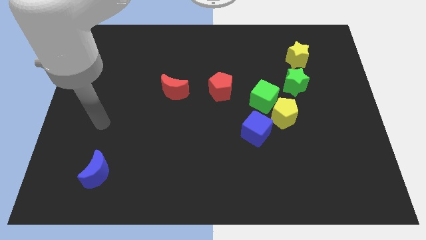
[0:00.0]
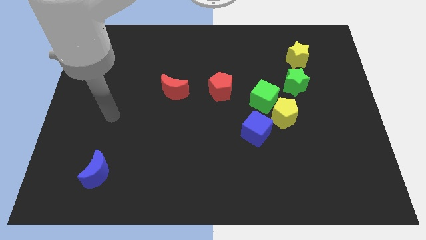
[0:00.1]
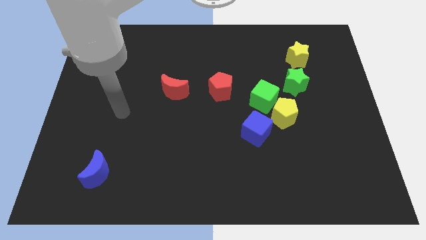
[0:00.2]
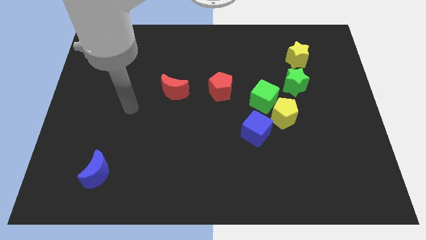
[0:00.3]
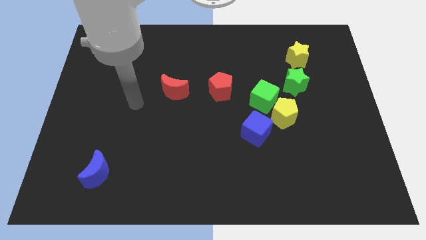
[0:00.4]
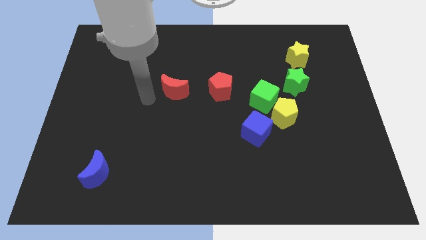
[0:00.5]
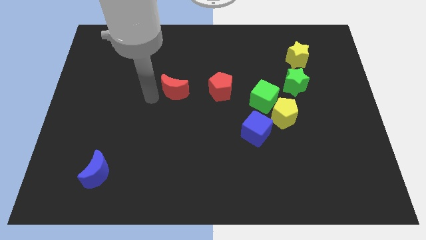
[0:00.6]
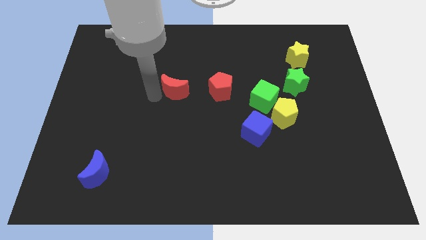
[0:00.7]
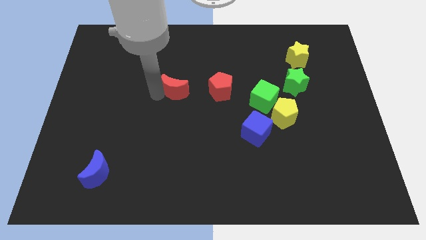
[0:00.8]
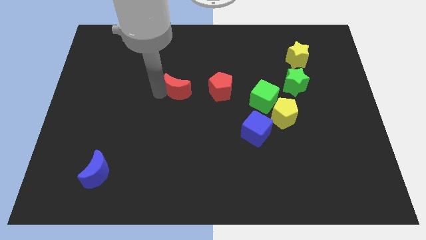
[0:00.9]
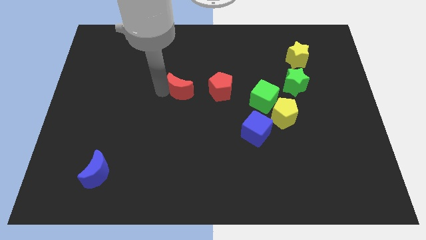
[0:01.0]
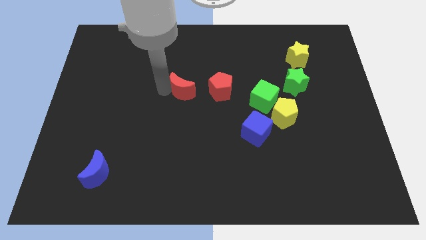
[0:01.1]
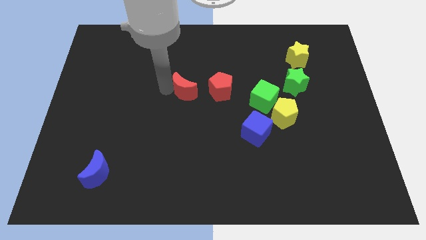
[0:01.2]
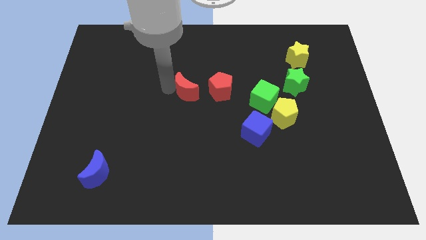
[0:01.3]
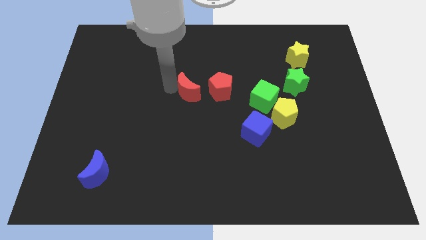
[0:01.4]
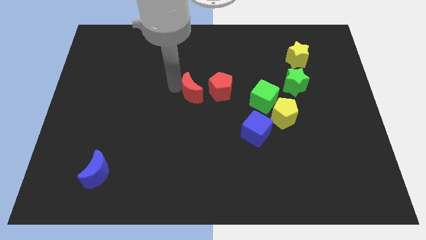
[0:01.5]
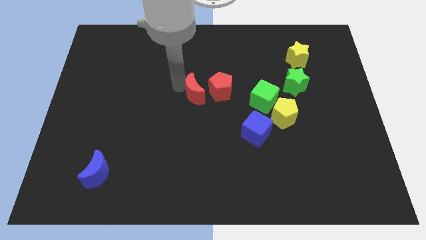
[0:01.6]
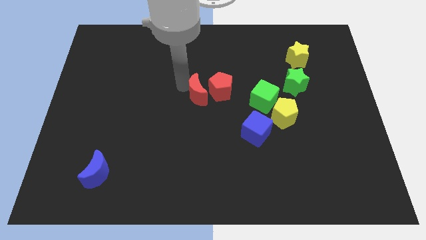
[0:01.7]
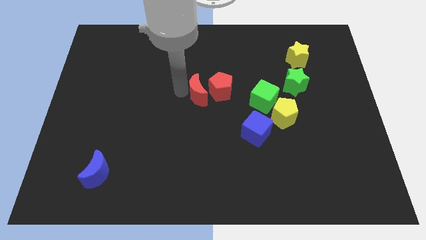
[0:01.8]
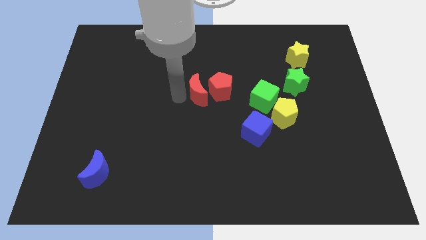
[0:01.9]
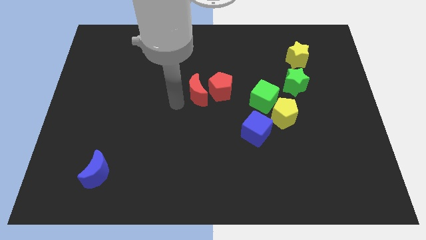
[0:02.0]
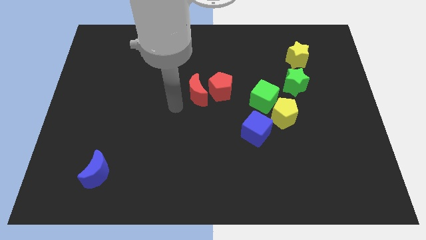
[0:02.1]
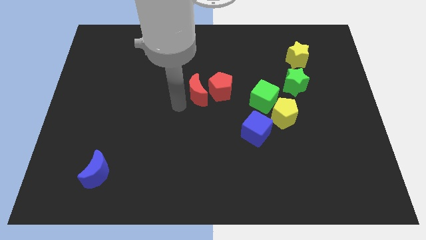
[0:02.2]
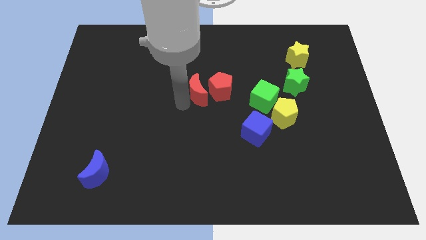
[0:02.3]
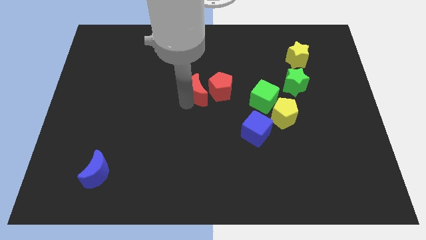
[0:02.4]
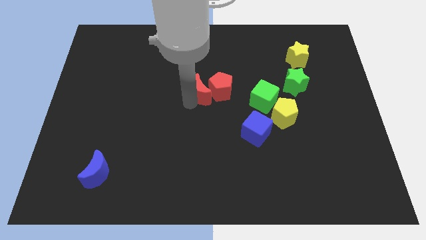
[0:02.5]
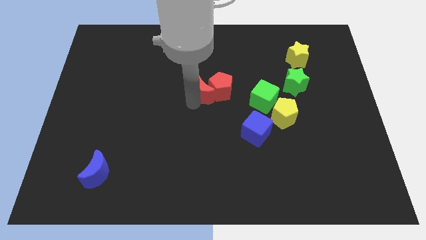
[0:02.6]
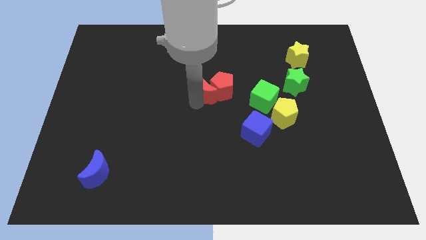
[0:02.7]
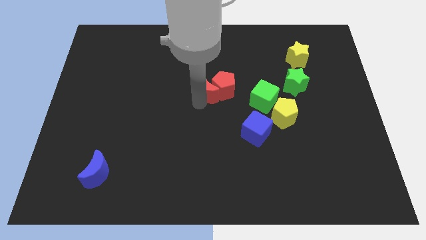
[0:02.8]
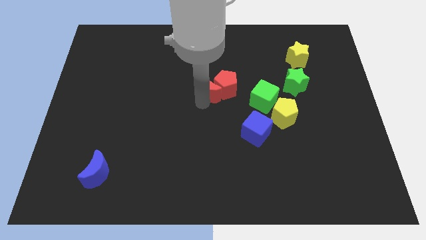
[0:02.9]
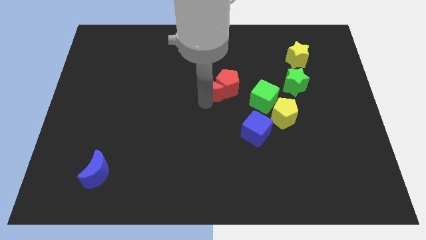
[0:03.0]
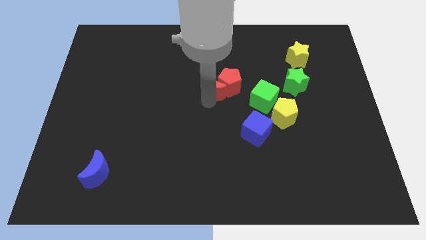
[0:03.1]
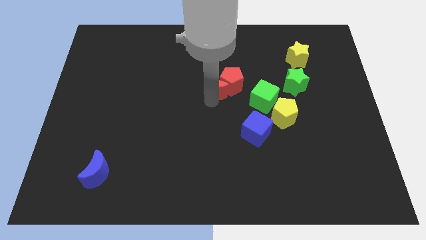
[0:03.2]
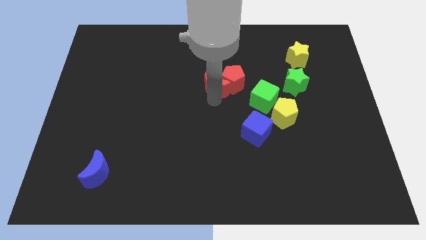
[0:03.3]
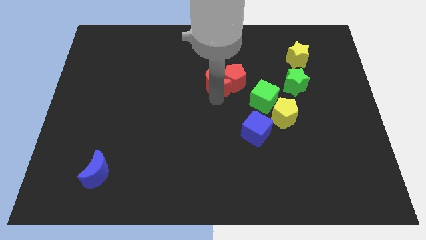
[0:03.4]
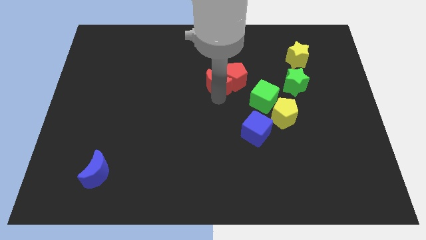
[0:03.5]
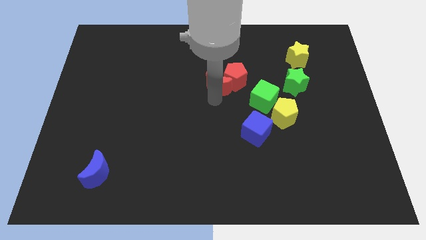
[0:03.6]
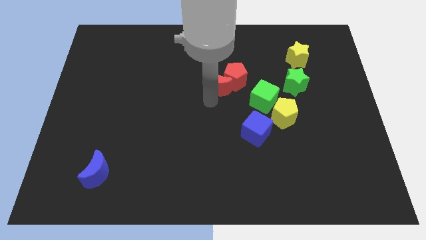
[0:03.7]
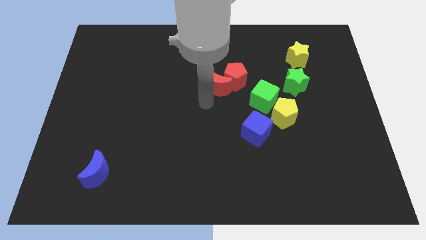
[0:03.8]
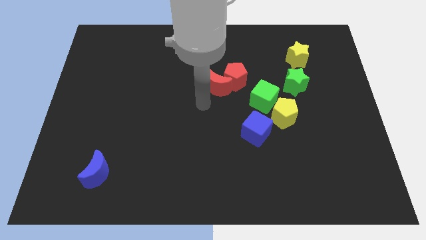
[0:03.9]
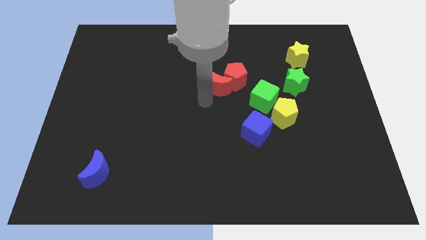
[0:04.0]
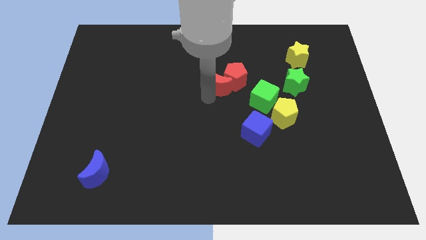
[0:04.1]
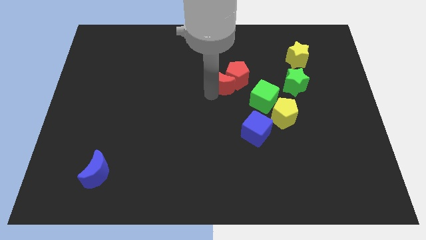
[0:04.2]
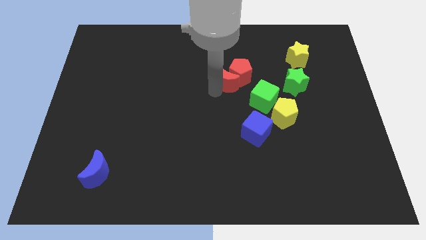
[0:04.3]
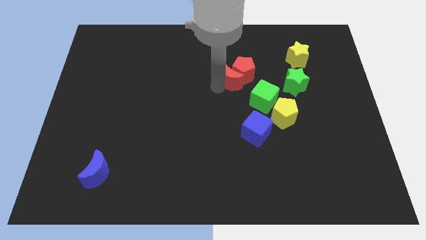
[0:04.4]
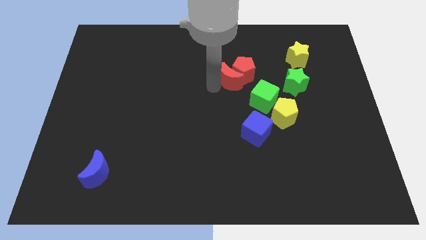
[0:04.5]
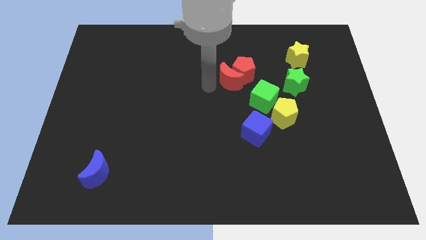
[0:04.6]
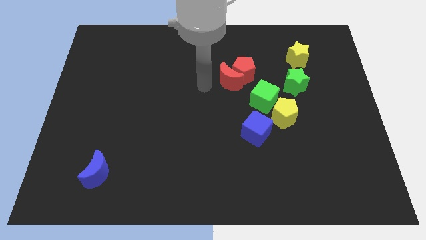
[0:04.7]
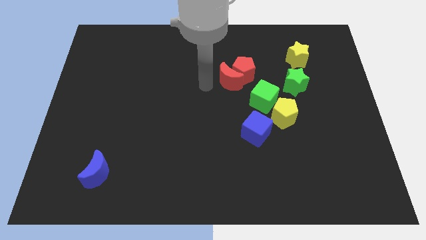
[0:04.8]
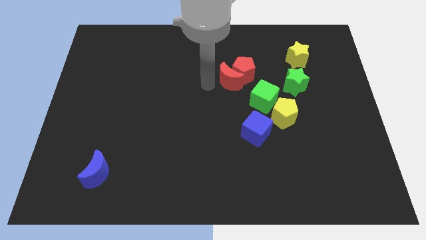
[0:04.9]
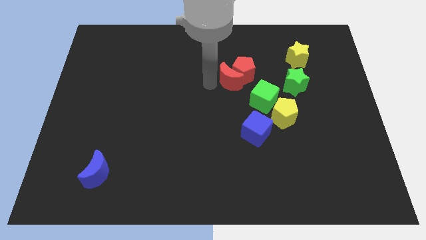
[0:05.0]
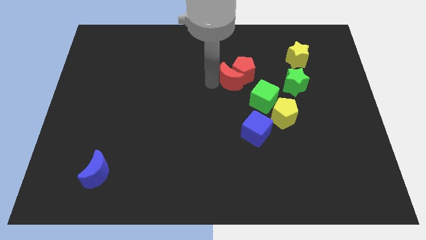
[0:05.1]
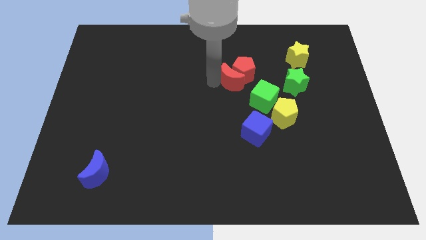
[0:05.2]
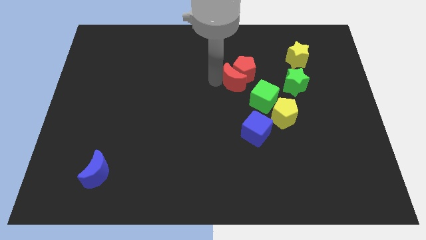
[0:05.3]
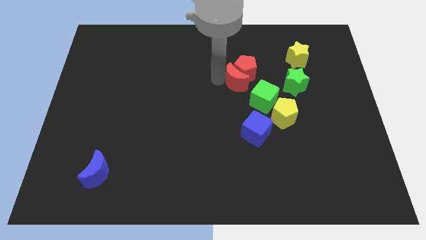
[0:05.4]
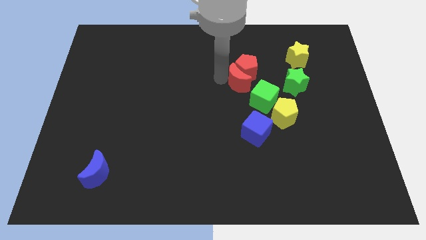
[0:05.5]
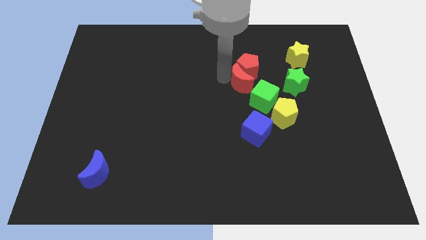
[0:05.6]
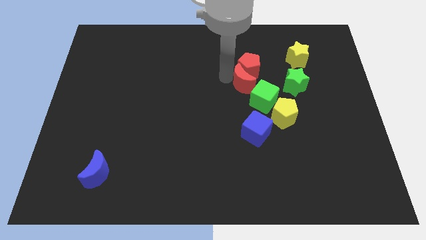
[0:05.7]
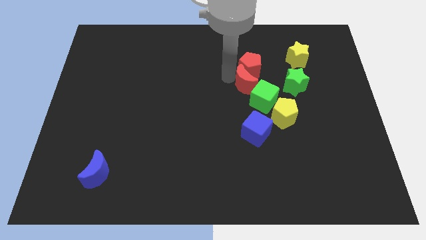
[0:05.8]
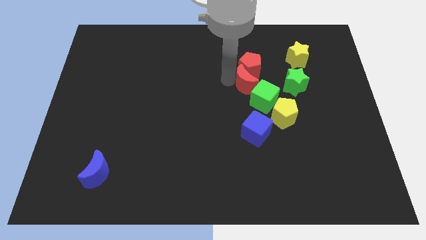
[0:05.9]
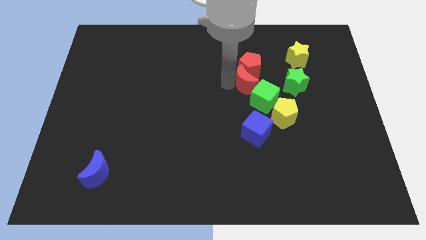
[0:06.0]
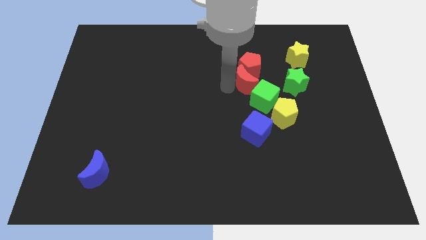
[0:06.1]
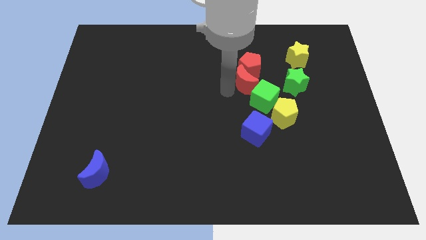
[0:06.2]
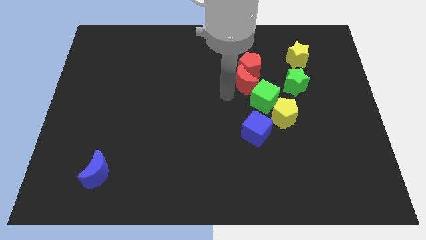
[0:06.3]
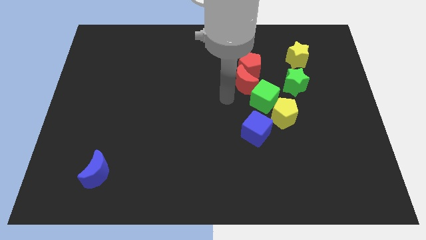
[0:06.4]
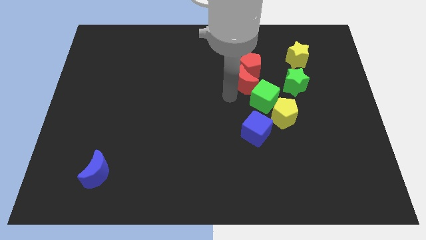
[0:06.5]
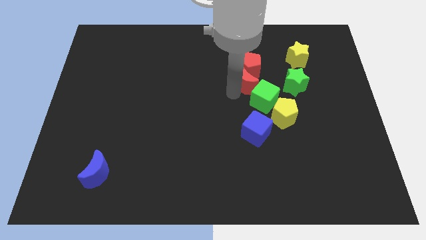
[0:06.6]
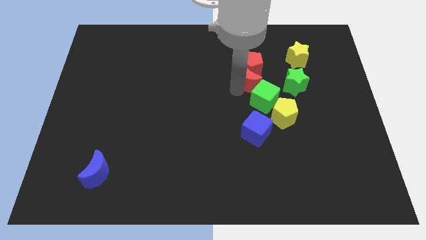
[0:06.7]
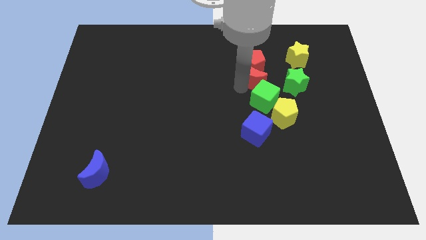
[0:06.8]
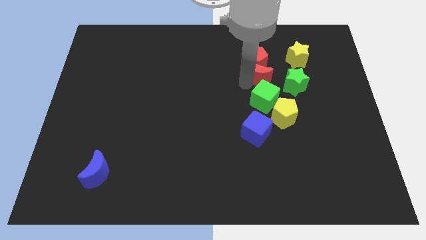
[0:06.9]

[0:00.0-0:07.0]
push the red moon to the top left of the green star
